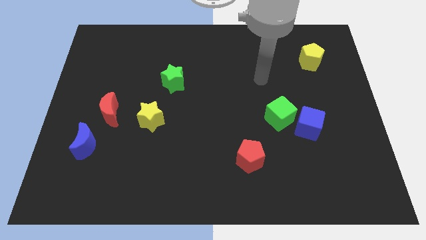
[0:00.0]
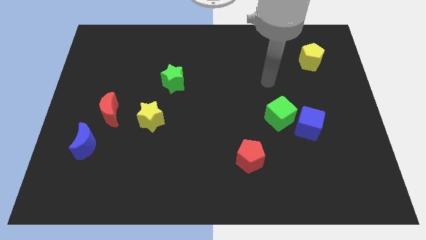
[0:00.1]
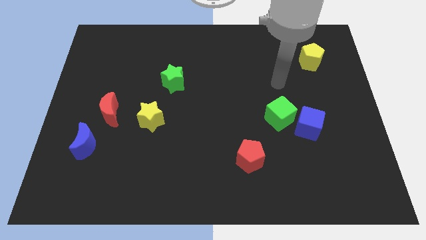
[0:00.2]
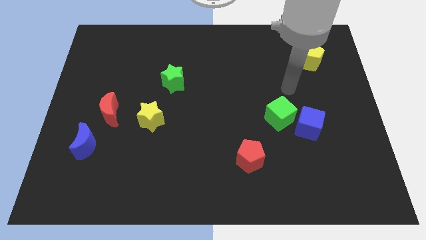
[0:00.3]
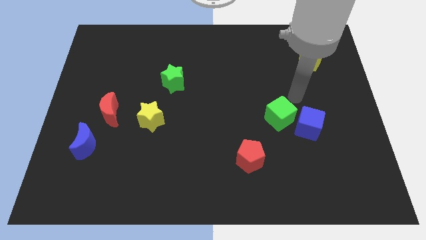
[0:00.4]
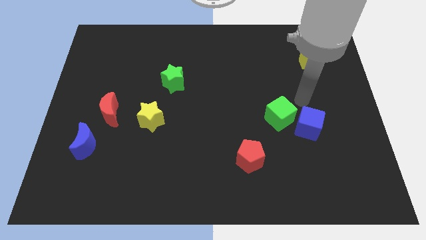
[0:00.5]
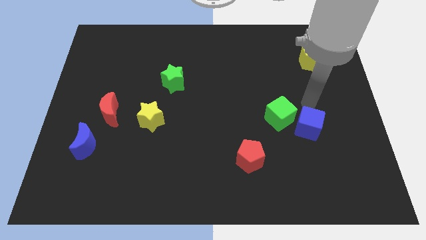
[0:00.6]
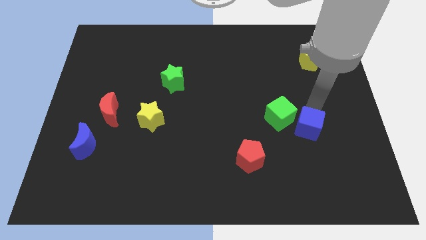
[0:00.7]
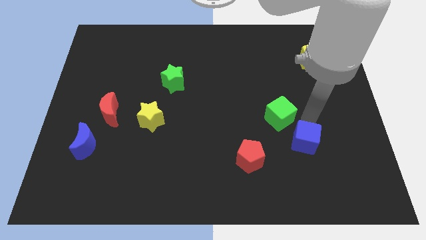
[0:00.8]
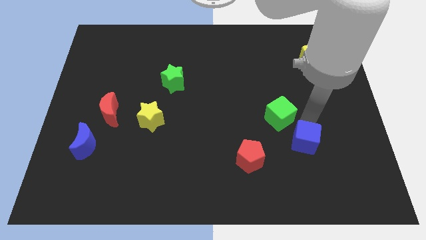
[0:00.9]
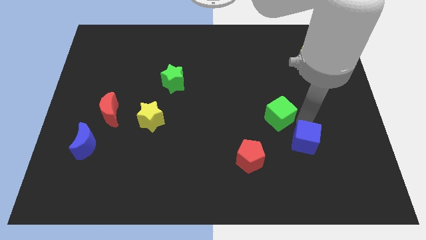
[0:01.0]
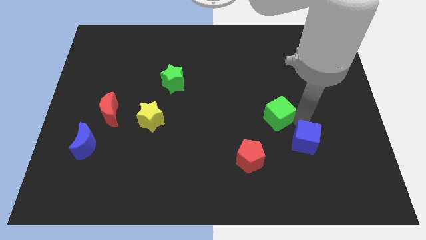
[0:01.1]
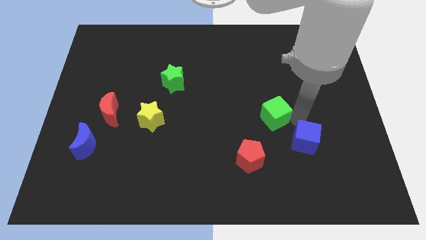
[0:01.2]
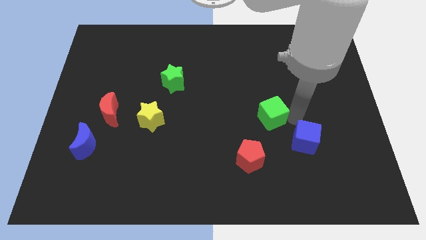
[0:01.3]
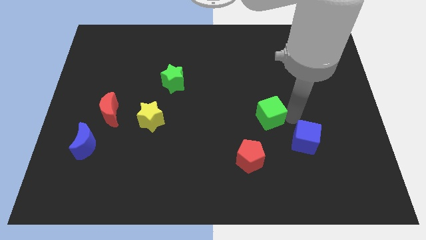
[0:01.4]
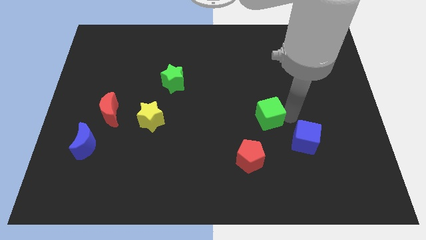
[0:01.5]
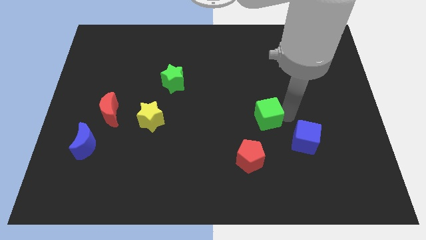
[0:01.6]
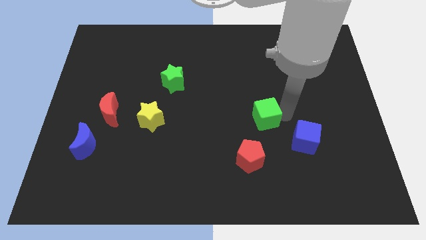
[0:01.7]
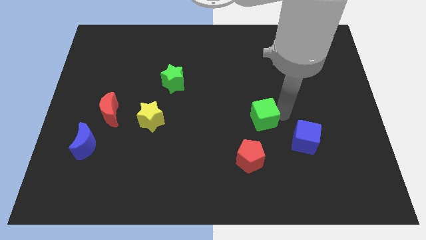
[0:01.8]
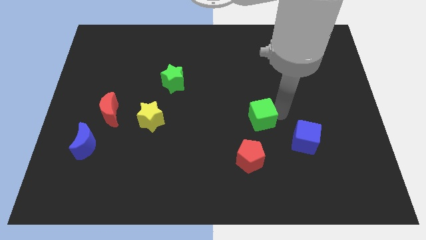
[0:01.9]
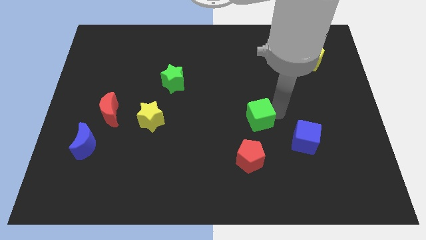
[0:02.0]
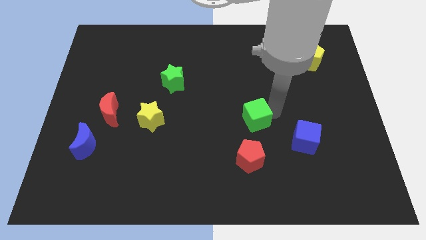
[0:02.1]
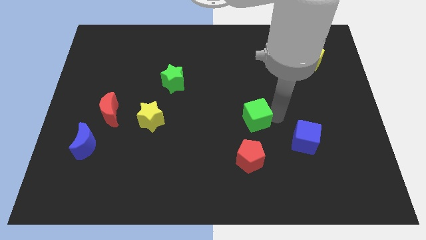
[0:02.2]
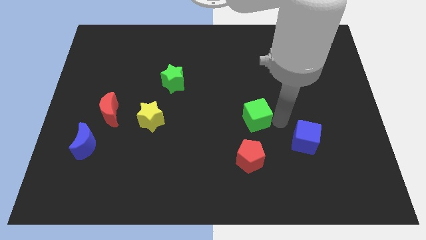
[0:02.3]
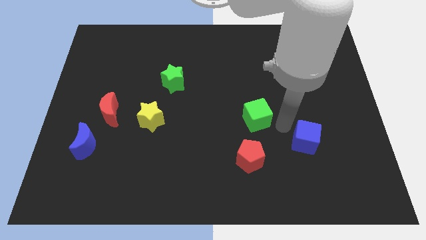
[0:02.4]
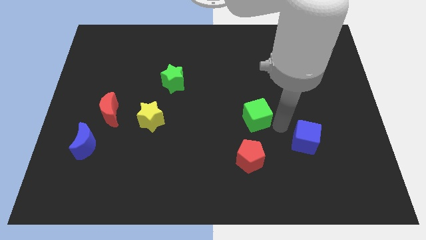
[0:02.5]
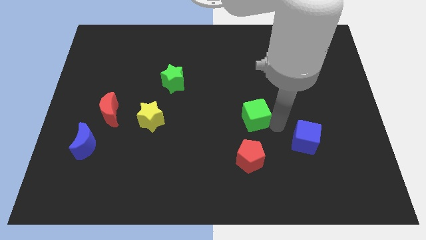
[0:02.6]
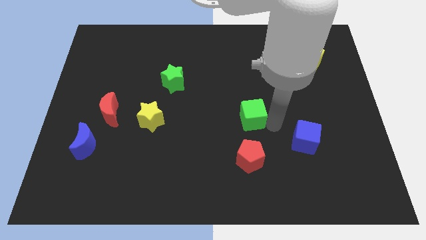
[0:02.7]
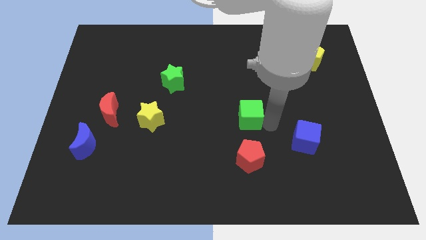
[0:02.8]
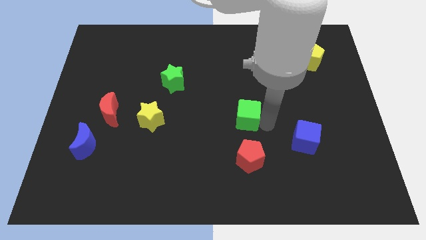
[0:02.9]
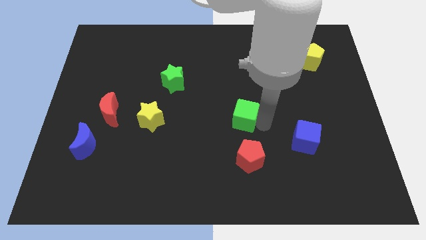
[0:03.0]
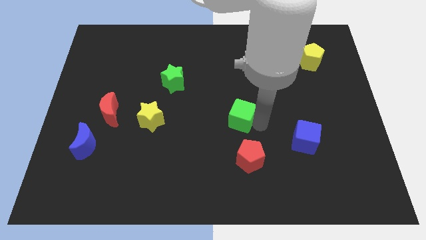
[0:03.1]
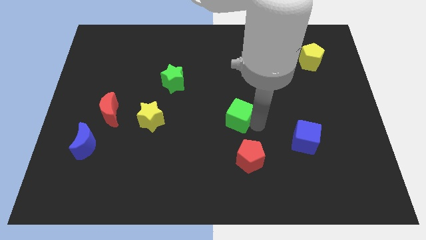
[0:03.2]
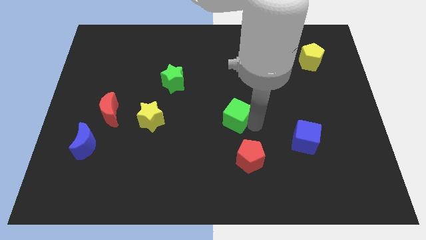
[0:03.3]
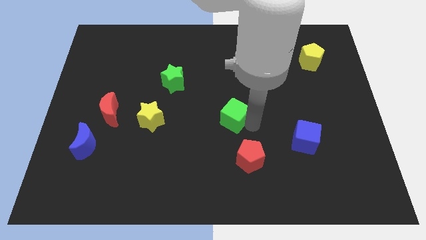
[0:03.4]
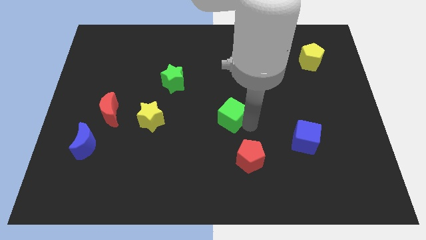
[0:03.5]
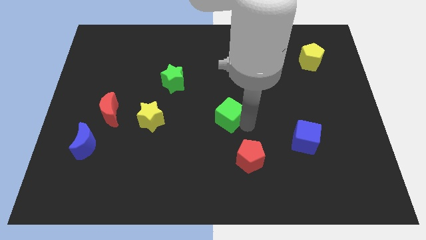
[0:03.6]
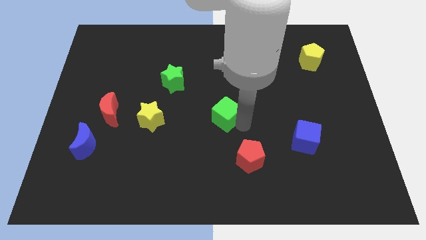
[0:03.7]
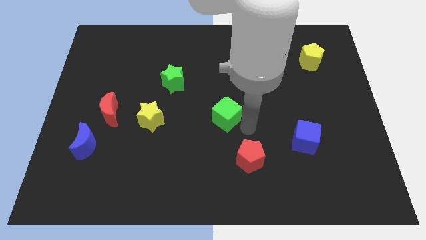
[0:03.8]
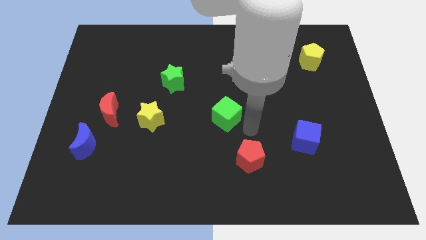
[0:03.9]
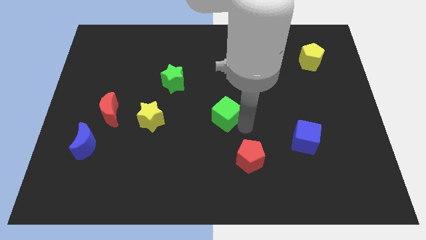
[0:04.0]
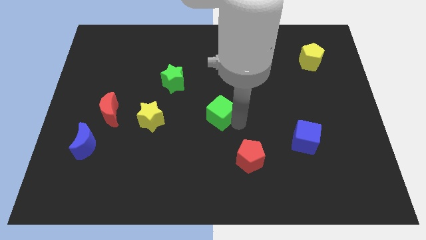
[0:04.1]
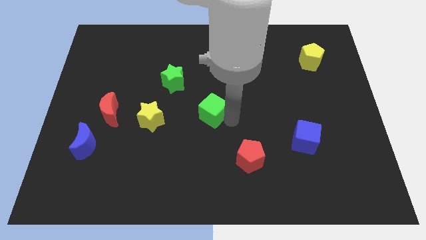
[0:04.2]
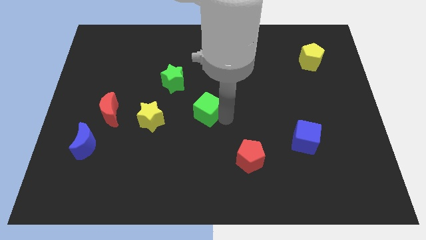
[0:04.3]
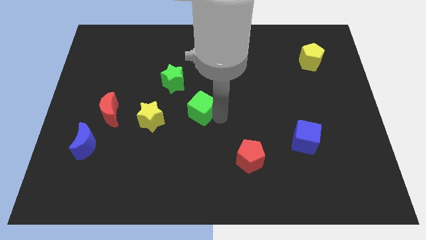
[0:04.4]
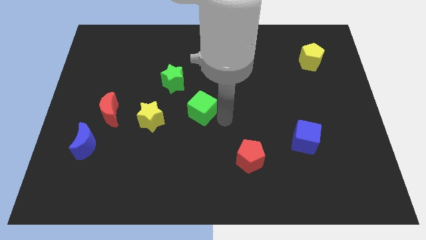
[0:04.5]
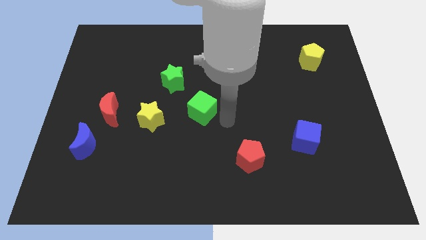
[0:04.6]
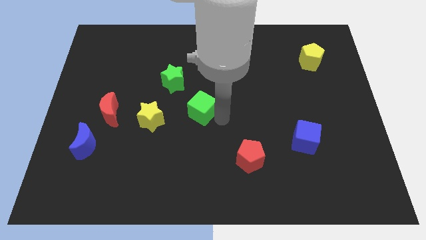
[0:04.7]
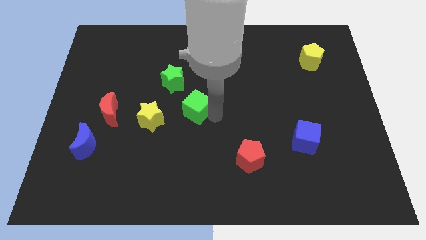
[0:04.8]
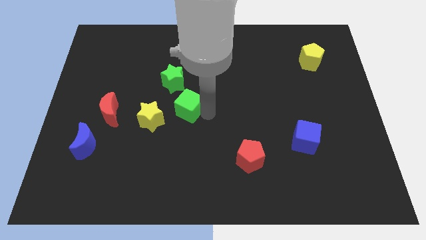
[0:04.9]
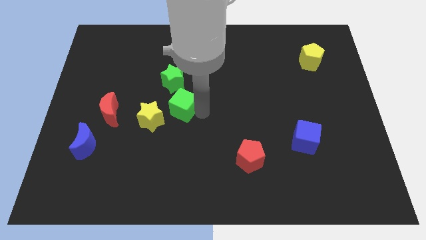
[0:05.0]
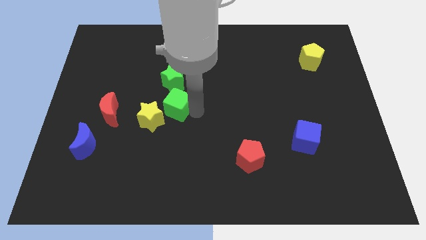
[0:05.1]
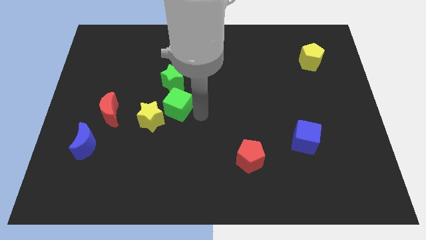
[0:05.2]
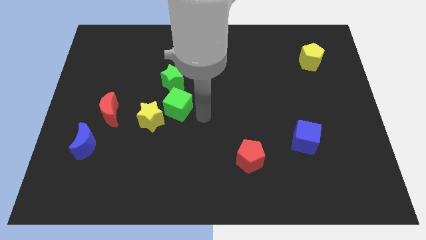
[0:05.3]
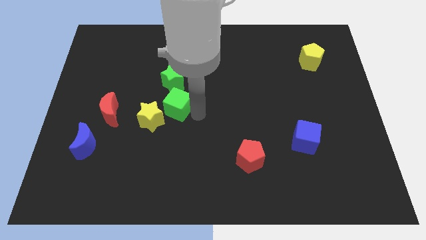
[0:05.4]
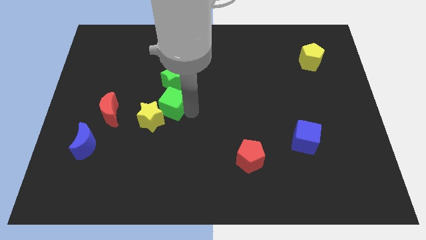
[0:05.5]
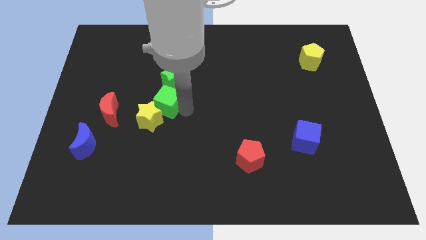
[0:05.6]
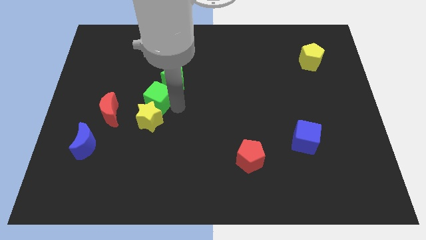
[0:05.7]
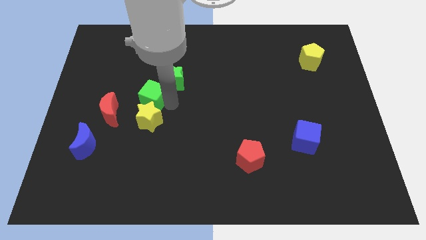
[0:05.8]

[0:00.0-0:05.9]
put the green cube to the top right side of the red moon

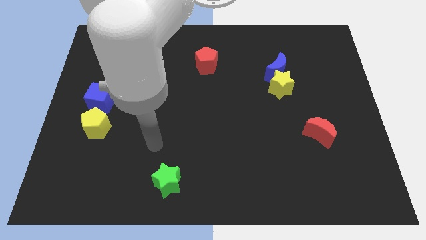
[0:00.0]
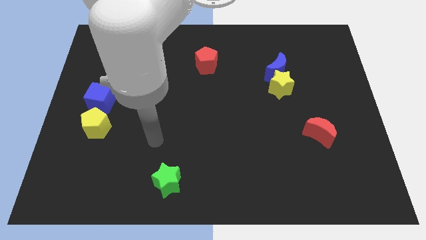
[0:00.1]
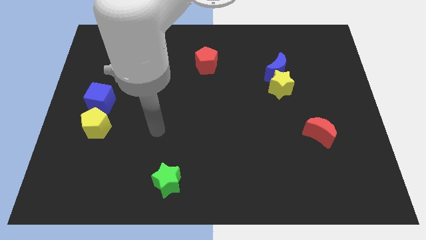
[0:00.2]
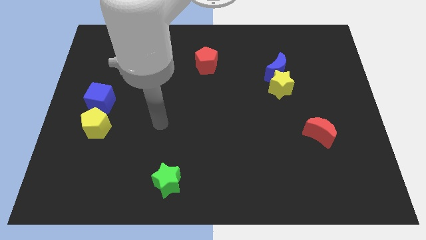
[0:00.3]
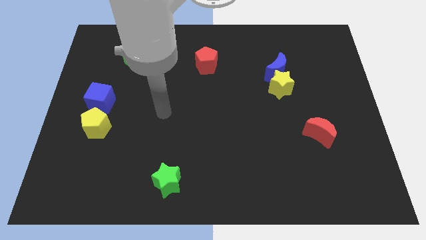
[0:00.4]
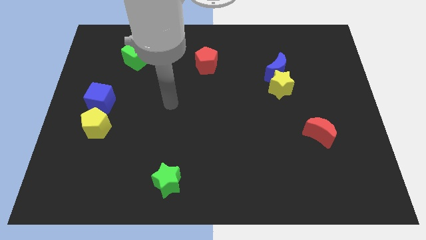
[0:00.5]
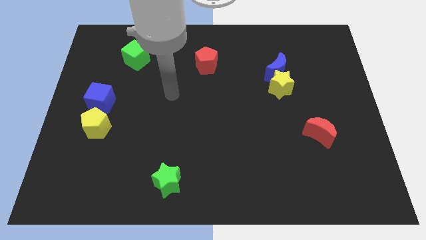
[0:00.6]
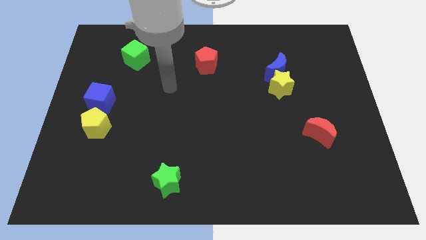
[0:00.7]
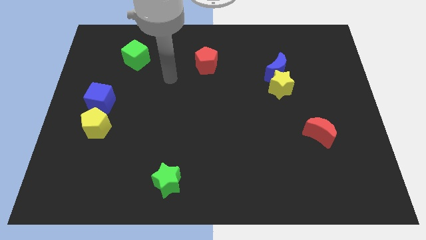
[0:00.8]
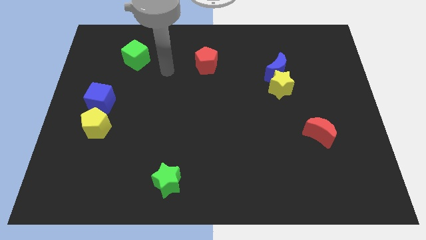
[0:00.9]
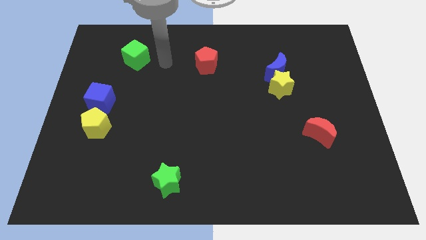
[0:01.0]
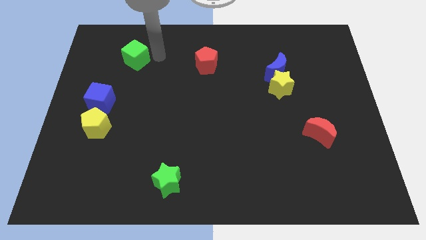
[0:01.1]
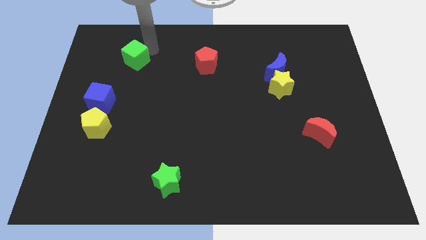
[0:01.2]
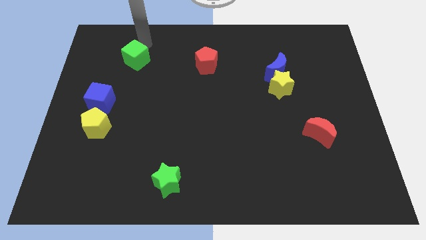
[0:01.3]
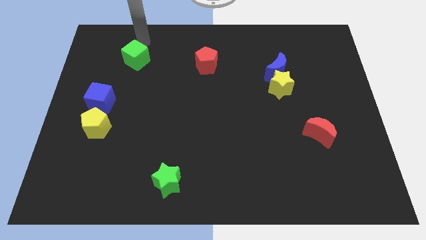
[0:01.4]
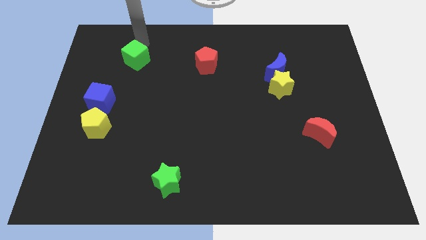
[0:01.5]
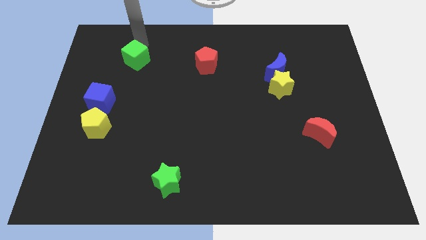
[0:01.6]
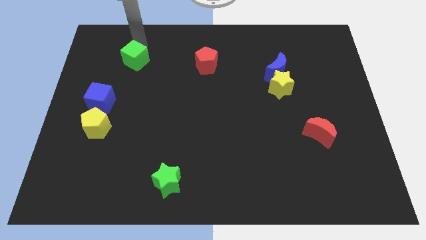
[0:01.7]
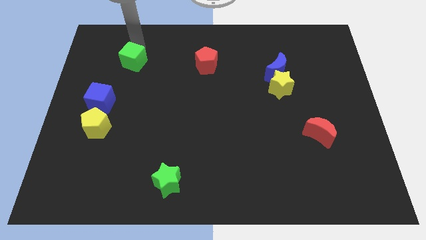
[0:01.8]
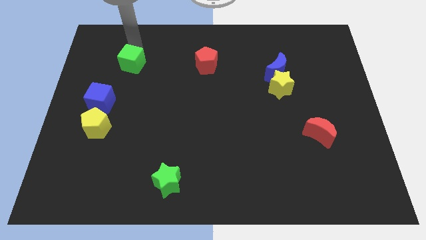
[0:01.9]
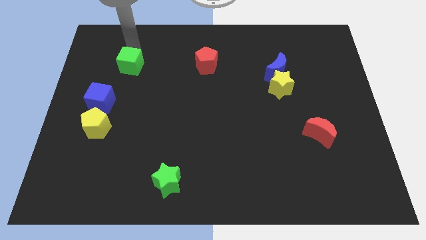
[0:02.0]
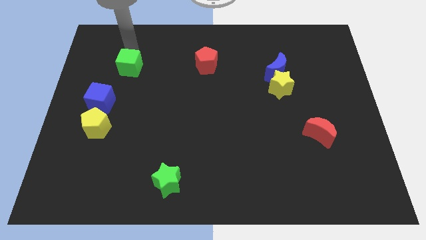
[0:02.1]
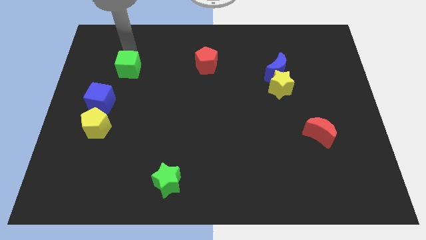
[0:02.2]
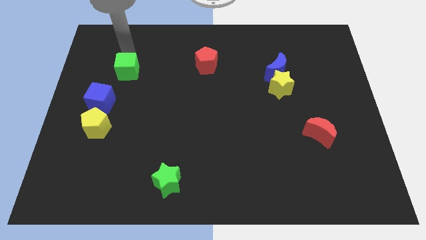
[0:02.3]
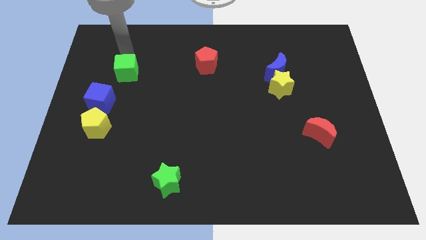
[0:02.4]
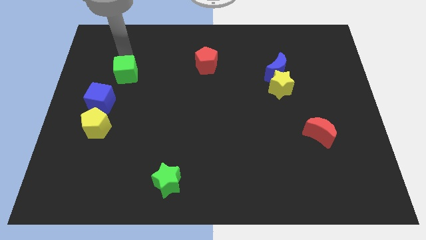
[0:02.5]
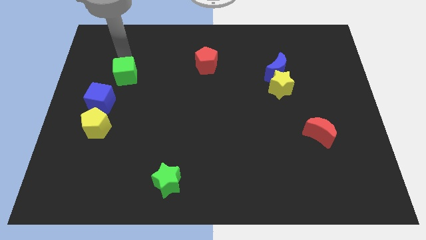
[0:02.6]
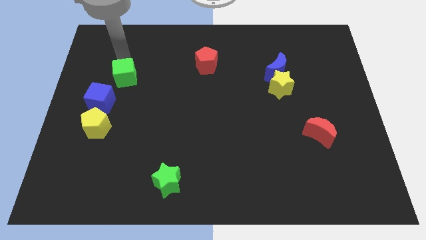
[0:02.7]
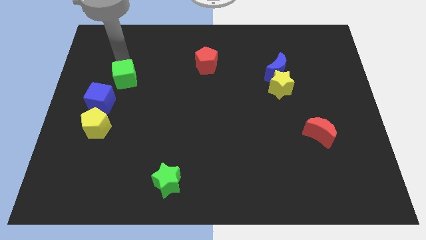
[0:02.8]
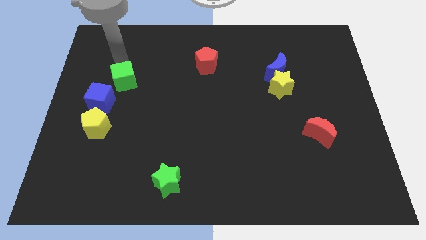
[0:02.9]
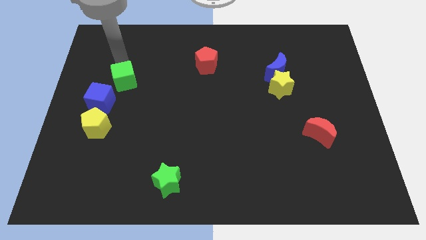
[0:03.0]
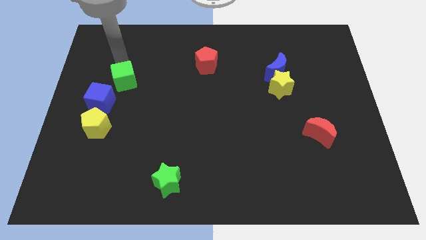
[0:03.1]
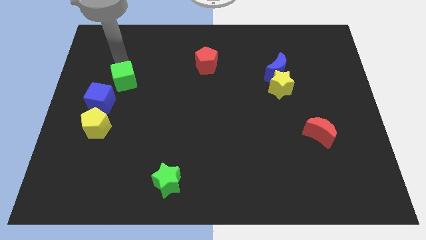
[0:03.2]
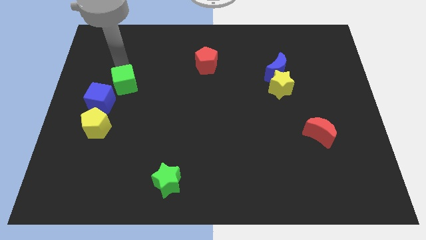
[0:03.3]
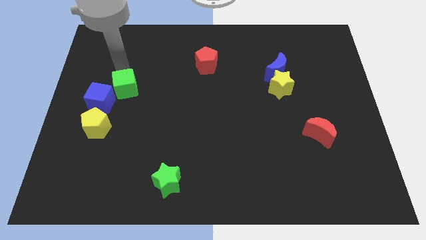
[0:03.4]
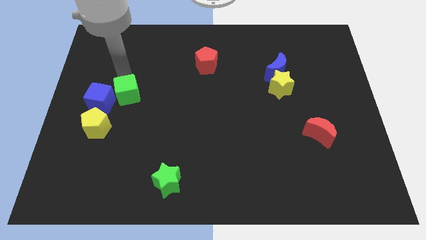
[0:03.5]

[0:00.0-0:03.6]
slide the green cube to the top right side of the yellow pentagon
